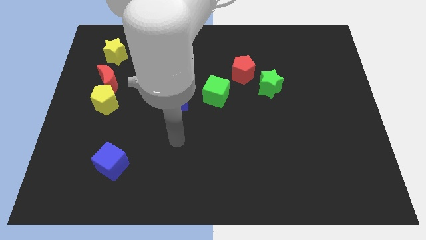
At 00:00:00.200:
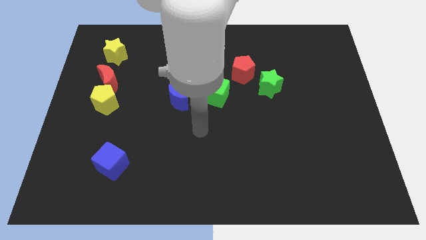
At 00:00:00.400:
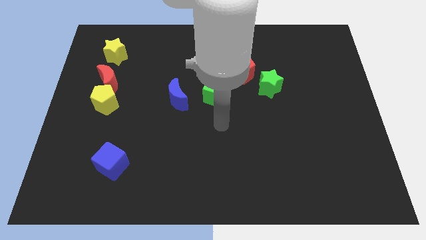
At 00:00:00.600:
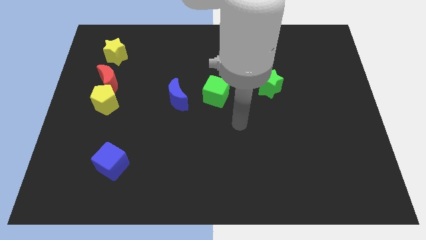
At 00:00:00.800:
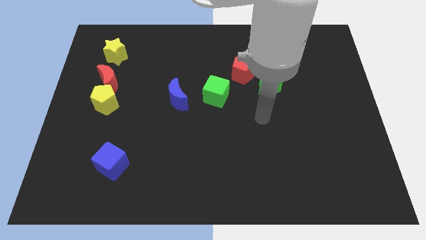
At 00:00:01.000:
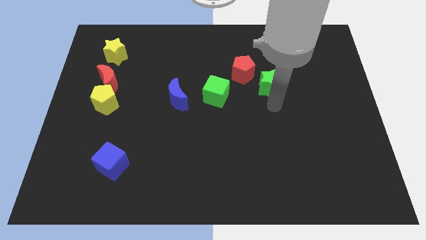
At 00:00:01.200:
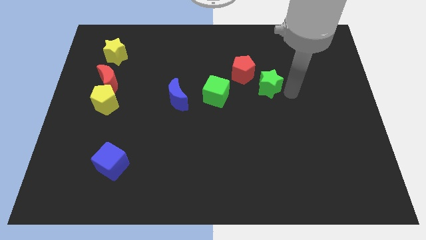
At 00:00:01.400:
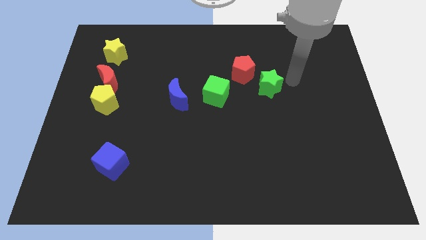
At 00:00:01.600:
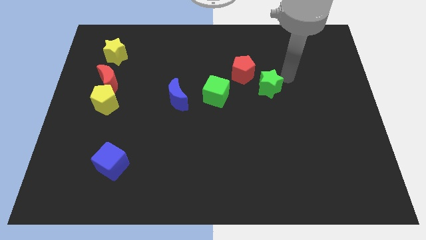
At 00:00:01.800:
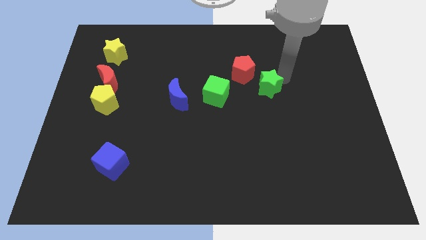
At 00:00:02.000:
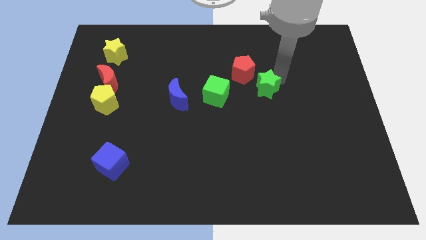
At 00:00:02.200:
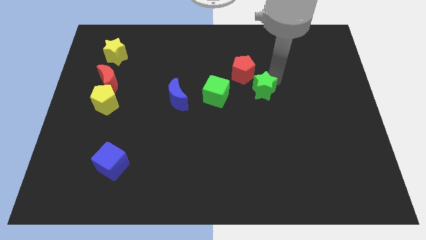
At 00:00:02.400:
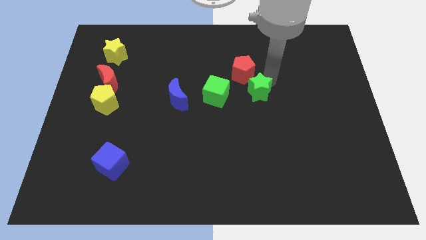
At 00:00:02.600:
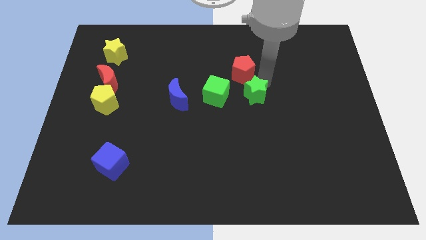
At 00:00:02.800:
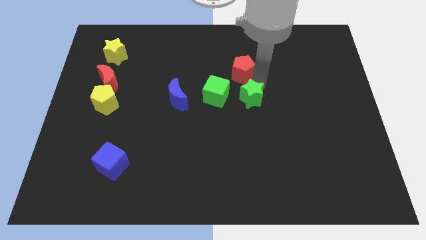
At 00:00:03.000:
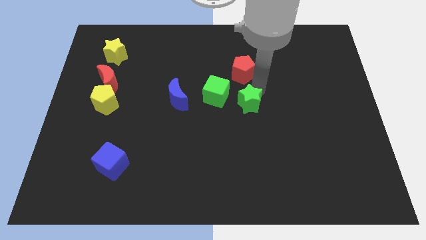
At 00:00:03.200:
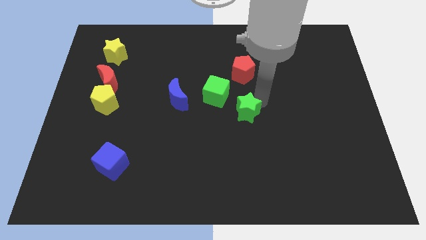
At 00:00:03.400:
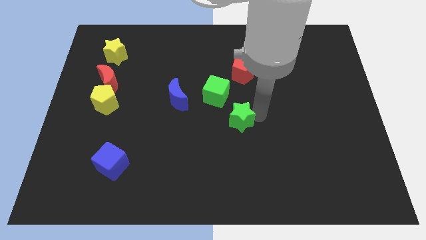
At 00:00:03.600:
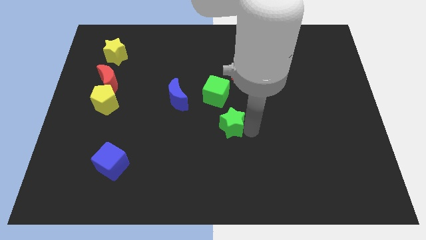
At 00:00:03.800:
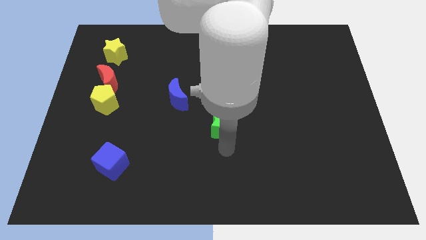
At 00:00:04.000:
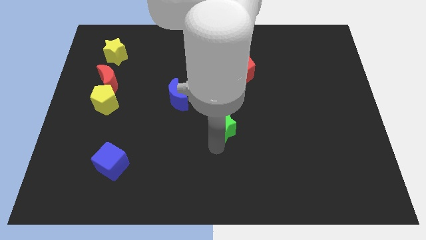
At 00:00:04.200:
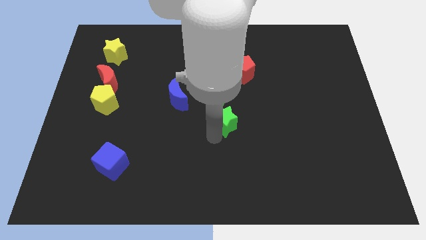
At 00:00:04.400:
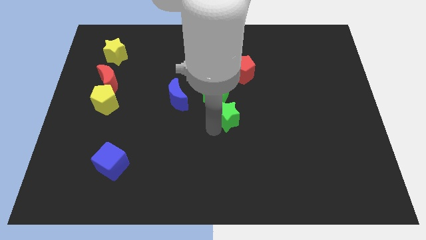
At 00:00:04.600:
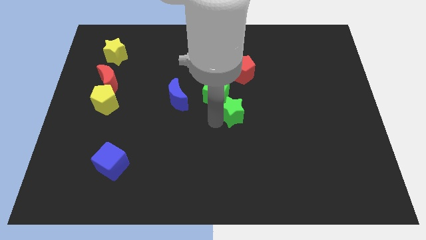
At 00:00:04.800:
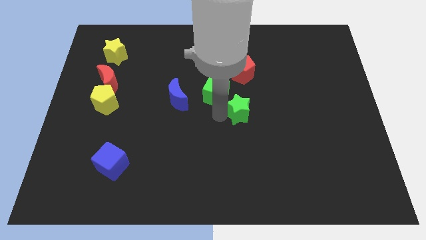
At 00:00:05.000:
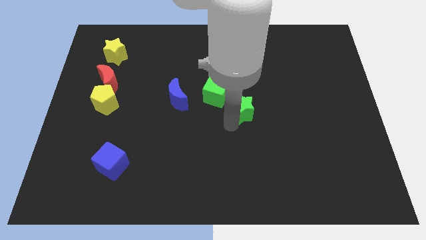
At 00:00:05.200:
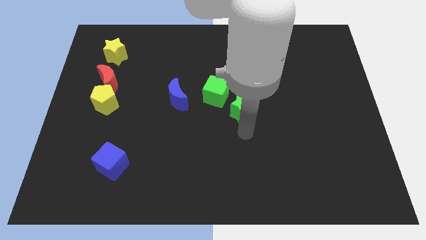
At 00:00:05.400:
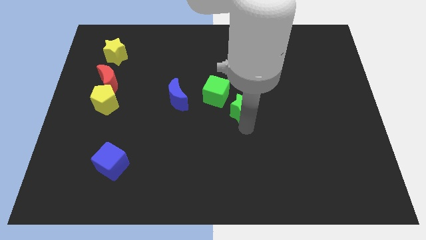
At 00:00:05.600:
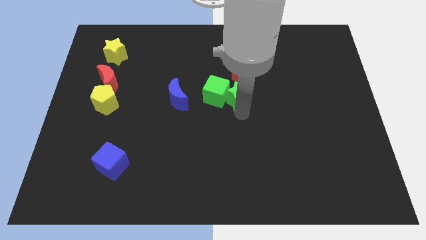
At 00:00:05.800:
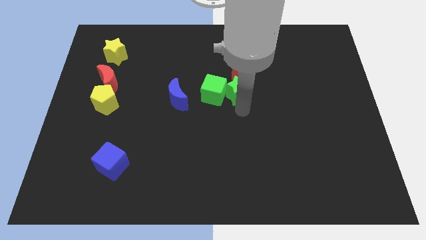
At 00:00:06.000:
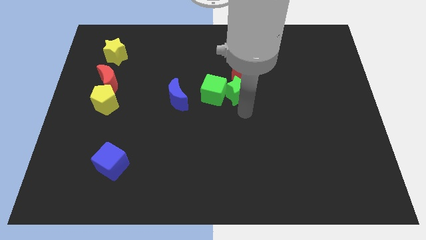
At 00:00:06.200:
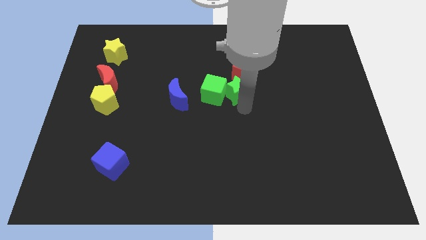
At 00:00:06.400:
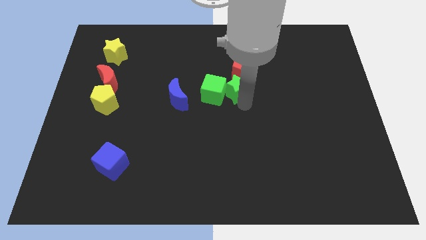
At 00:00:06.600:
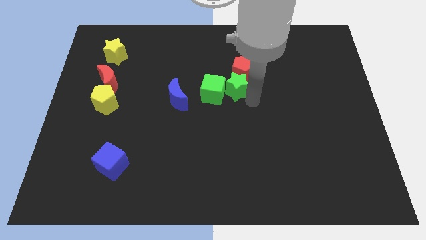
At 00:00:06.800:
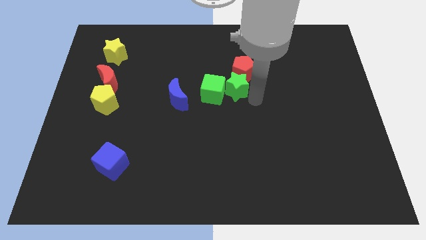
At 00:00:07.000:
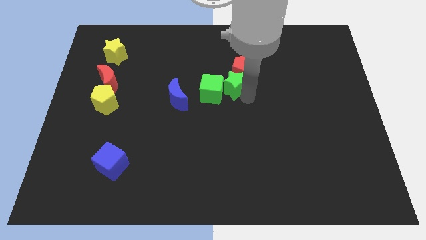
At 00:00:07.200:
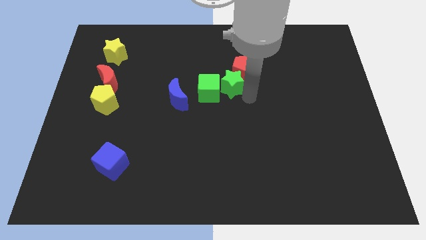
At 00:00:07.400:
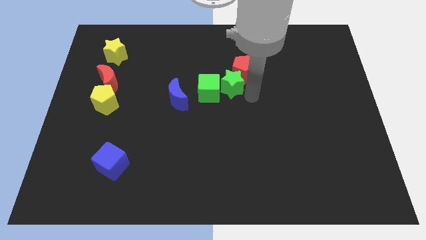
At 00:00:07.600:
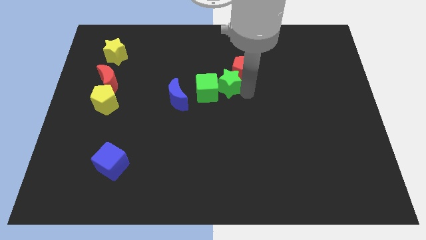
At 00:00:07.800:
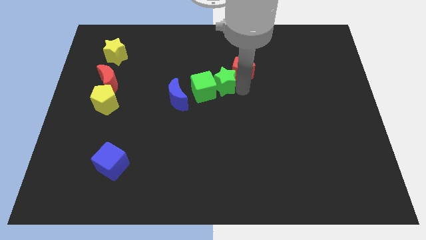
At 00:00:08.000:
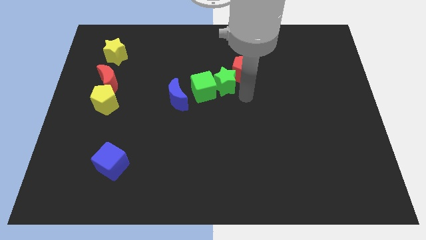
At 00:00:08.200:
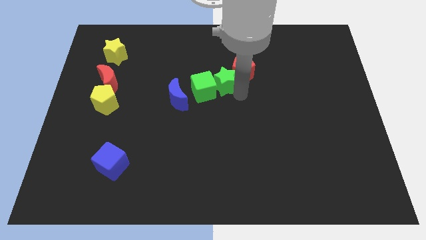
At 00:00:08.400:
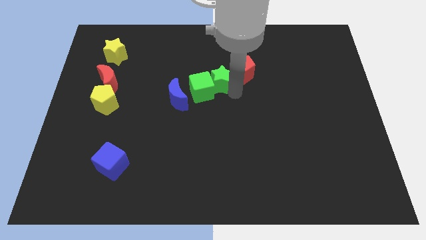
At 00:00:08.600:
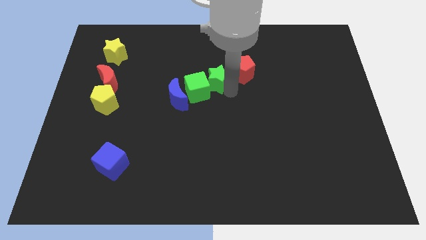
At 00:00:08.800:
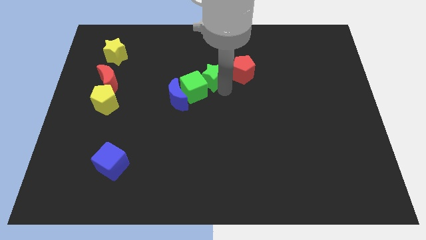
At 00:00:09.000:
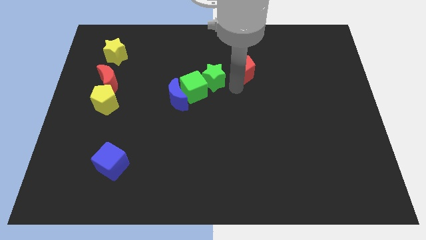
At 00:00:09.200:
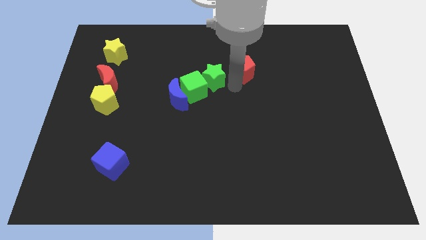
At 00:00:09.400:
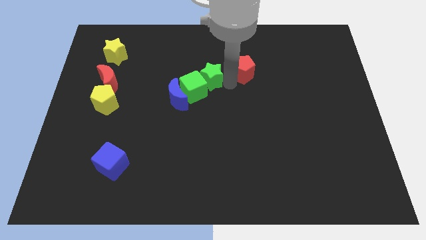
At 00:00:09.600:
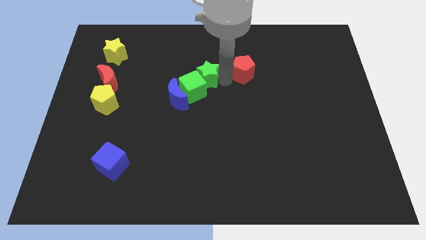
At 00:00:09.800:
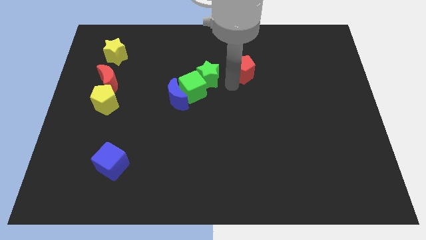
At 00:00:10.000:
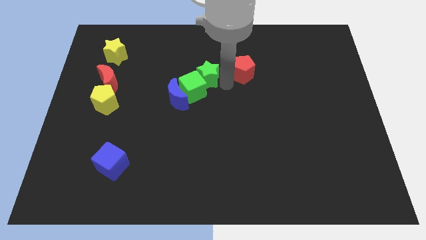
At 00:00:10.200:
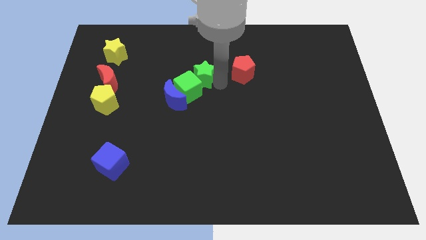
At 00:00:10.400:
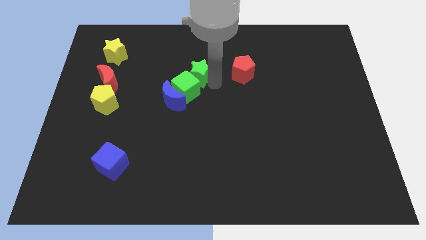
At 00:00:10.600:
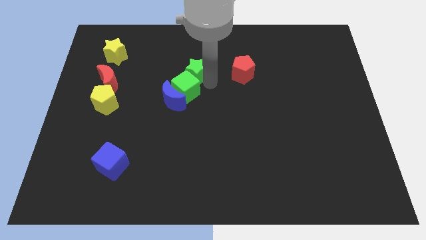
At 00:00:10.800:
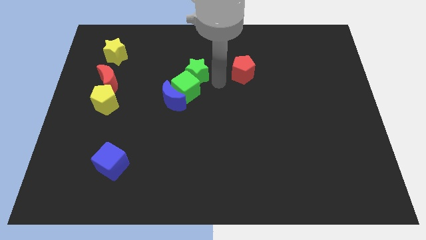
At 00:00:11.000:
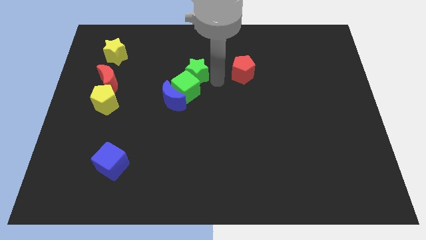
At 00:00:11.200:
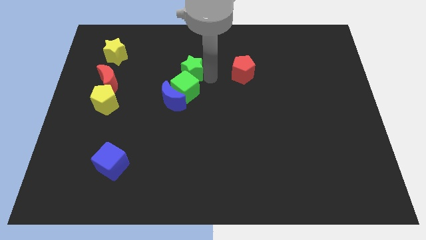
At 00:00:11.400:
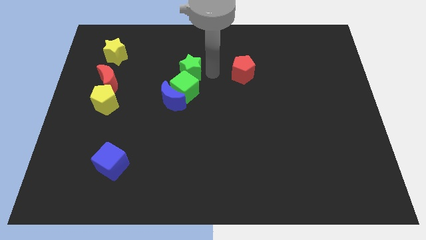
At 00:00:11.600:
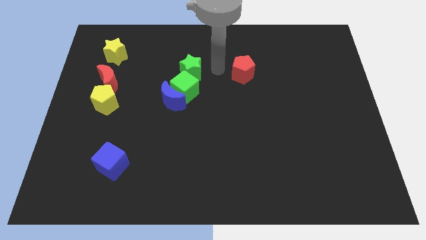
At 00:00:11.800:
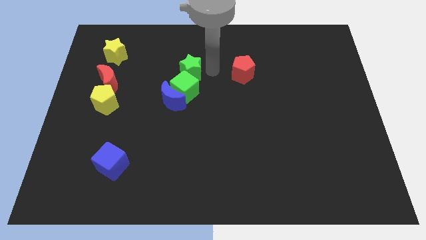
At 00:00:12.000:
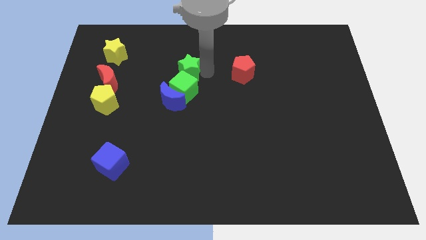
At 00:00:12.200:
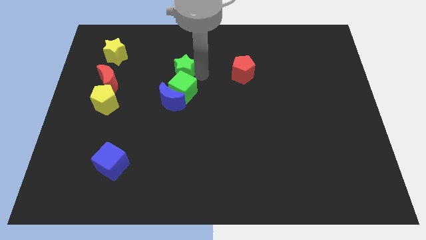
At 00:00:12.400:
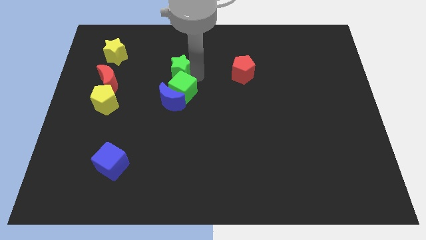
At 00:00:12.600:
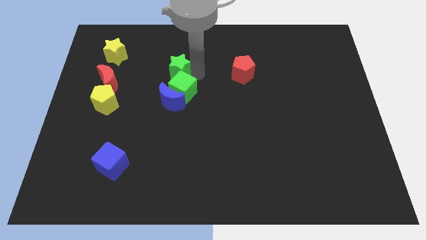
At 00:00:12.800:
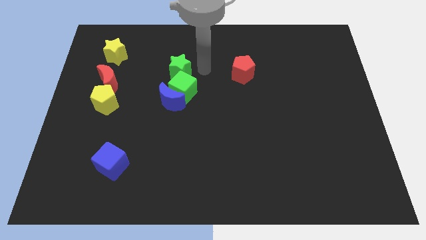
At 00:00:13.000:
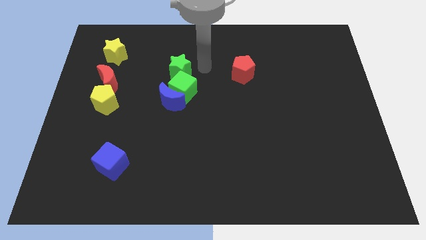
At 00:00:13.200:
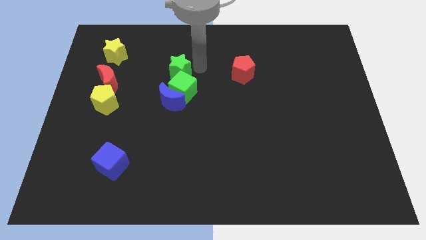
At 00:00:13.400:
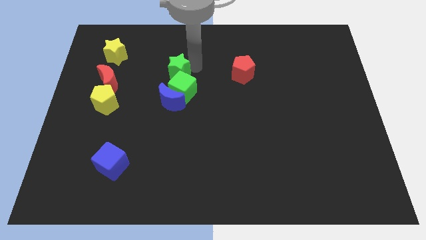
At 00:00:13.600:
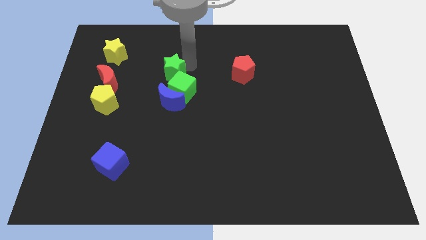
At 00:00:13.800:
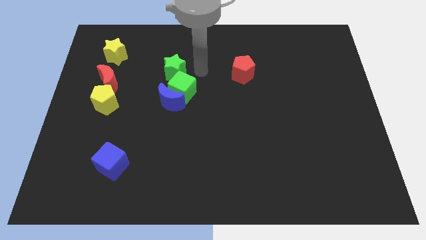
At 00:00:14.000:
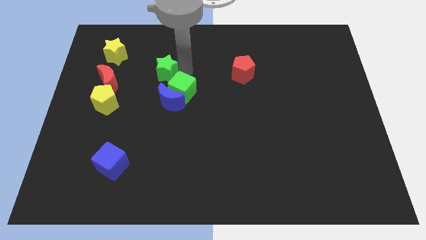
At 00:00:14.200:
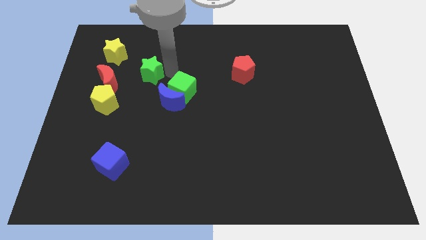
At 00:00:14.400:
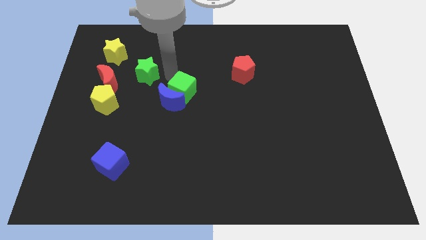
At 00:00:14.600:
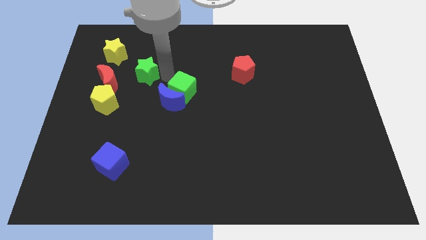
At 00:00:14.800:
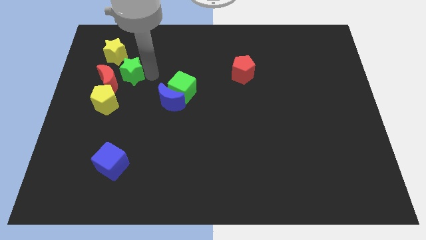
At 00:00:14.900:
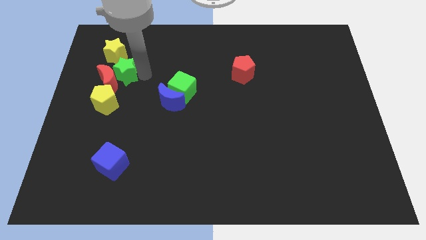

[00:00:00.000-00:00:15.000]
put the green star to the top side of the yellow pentagon
